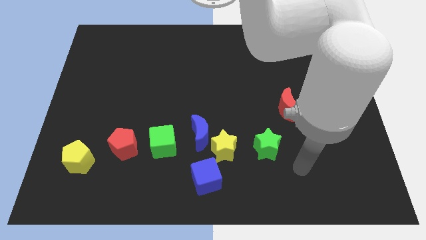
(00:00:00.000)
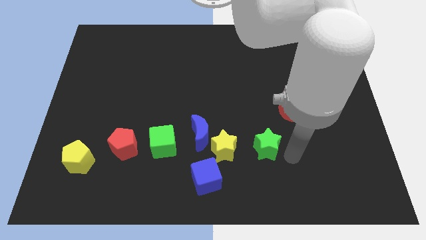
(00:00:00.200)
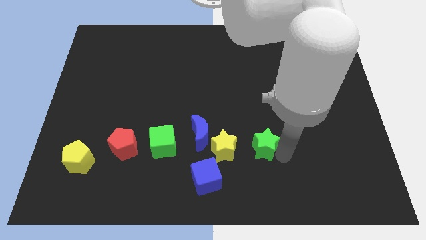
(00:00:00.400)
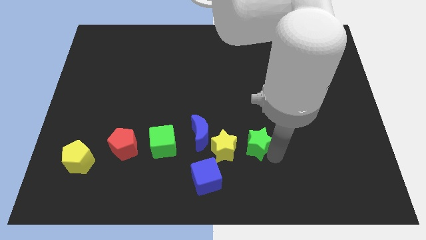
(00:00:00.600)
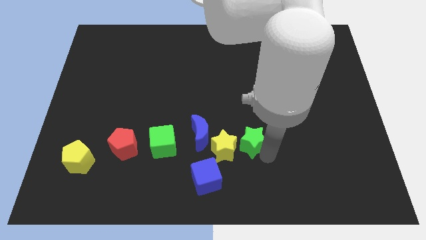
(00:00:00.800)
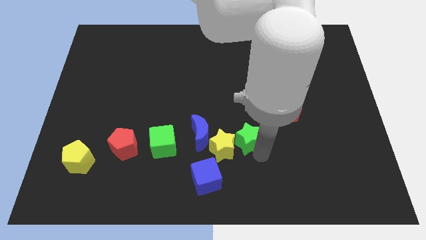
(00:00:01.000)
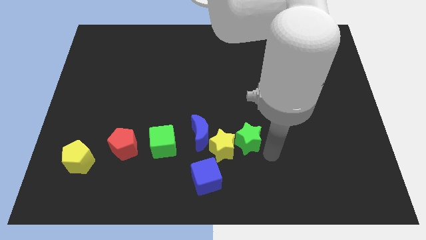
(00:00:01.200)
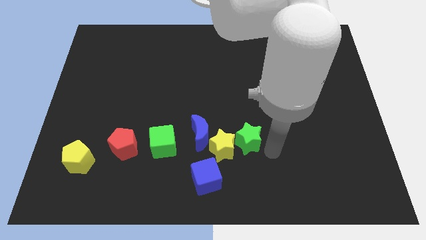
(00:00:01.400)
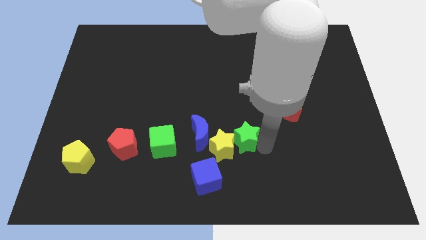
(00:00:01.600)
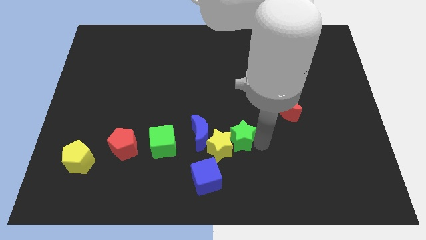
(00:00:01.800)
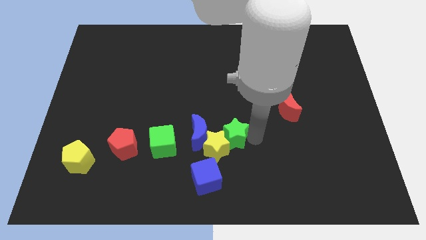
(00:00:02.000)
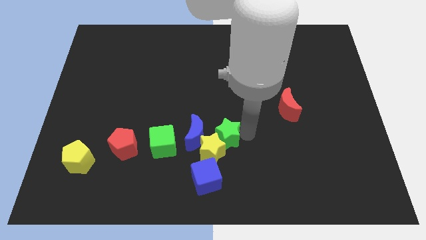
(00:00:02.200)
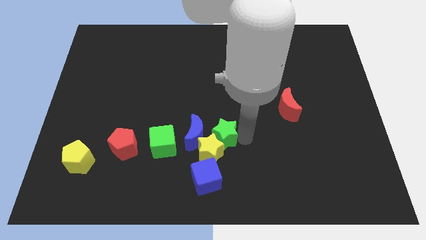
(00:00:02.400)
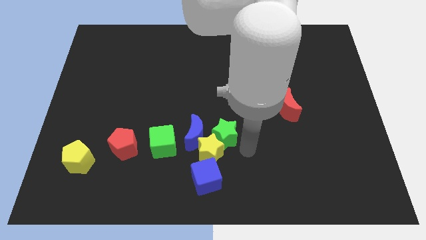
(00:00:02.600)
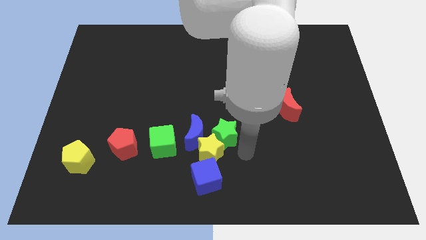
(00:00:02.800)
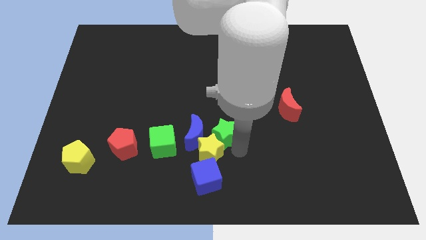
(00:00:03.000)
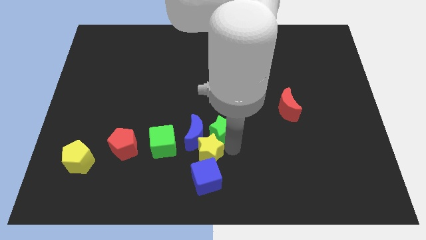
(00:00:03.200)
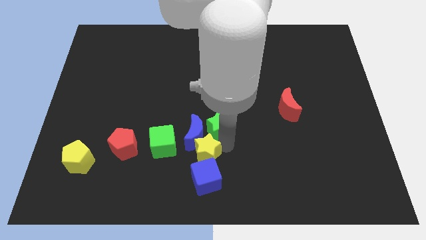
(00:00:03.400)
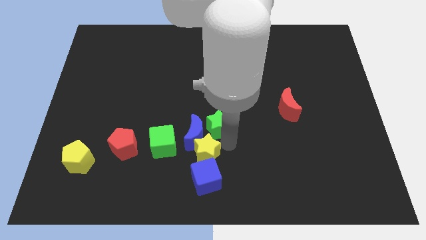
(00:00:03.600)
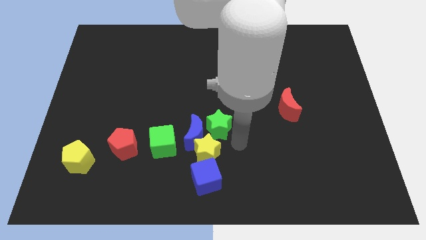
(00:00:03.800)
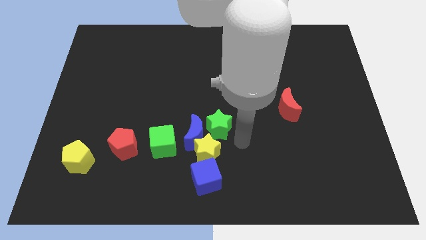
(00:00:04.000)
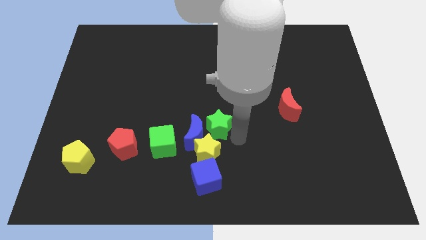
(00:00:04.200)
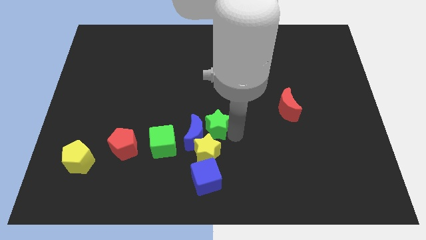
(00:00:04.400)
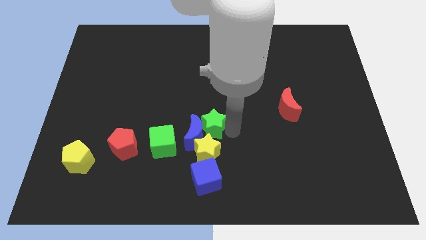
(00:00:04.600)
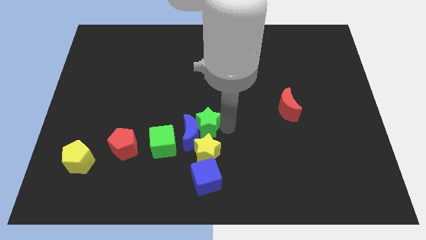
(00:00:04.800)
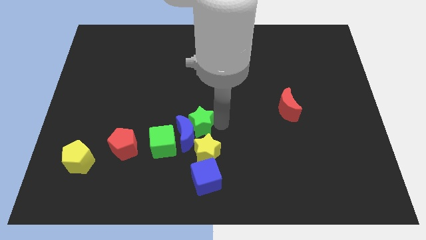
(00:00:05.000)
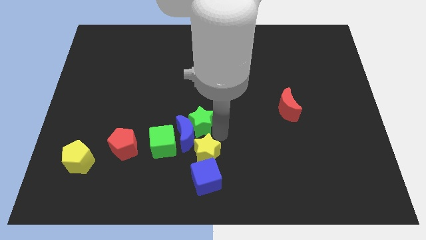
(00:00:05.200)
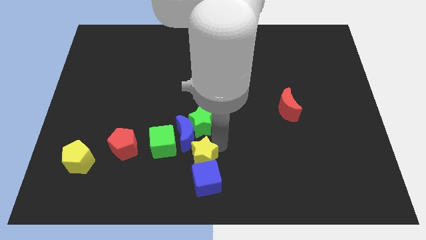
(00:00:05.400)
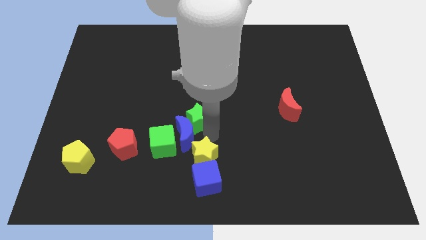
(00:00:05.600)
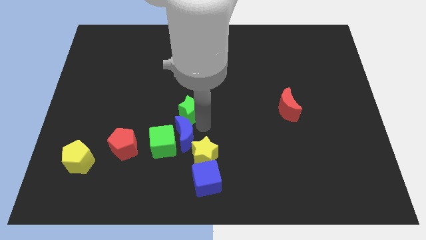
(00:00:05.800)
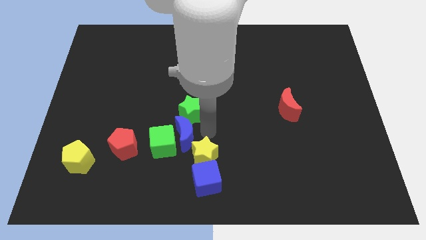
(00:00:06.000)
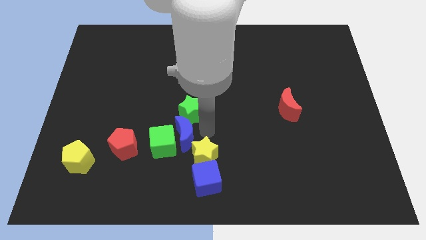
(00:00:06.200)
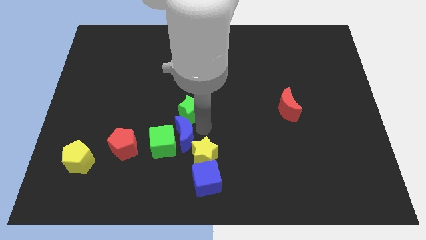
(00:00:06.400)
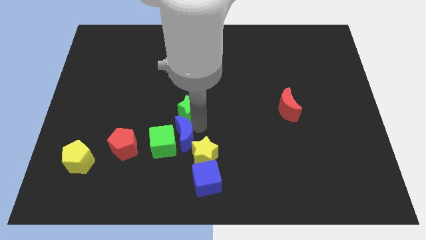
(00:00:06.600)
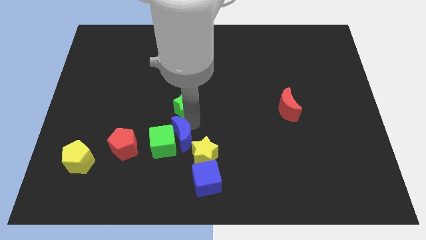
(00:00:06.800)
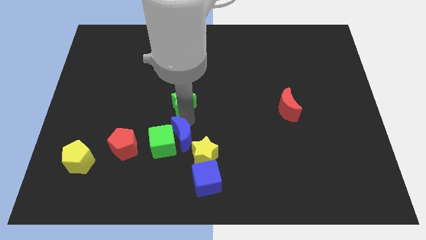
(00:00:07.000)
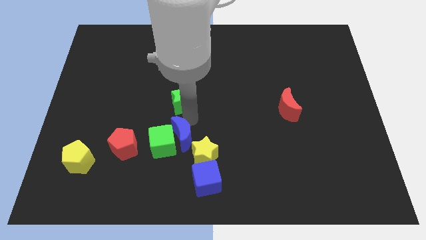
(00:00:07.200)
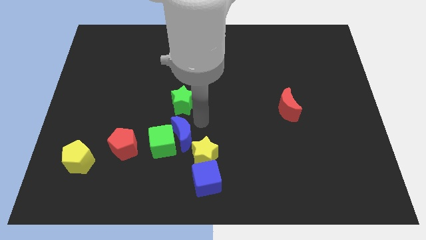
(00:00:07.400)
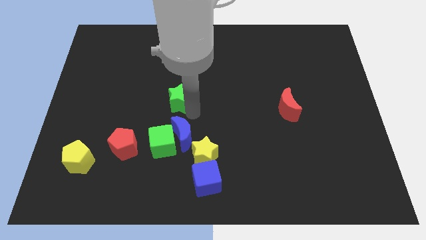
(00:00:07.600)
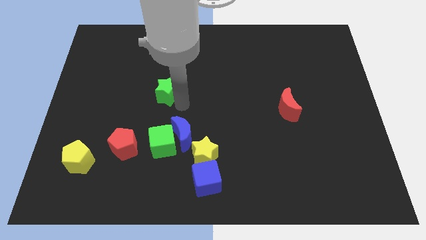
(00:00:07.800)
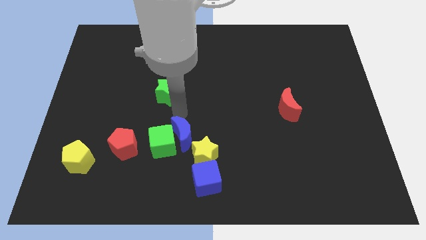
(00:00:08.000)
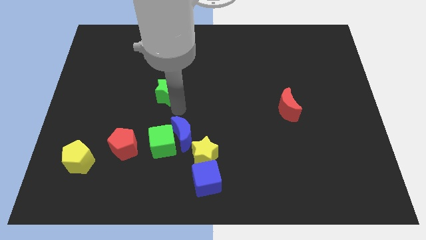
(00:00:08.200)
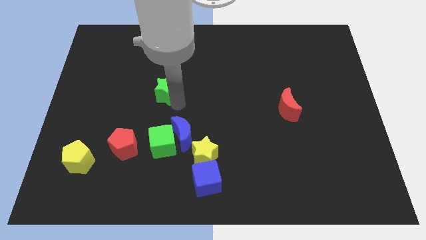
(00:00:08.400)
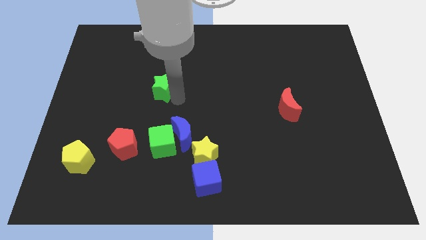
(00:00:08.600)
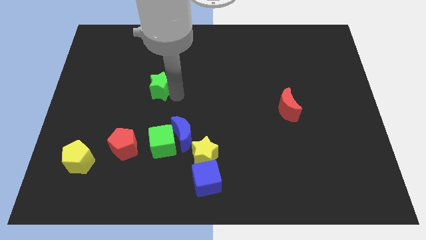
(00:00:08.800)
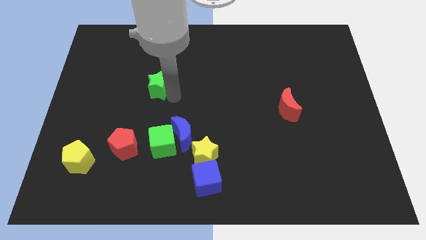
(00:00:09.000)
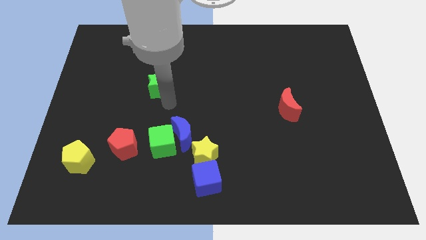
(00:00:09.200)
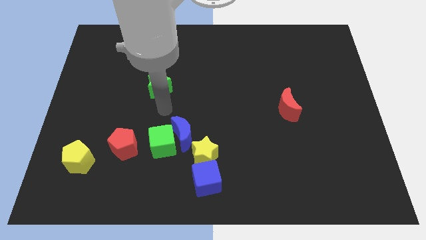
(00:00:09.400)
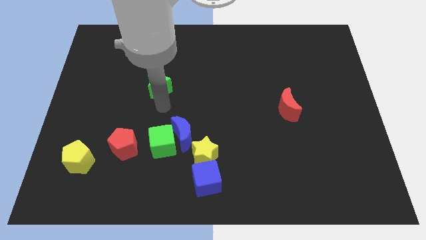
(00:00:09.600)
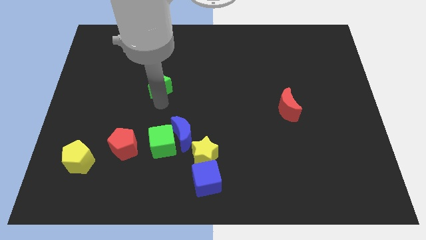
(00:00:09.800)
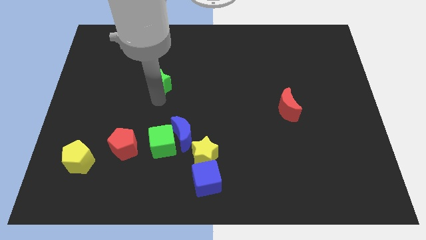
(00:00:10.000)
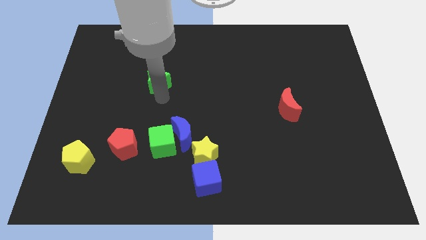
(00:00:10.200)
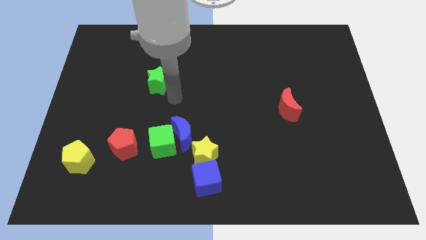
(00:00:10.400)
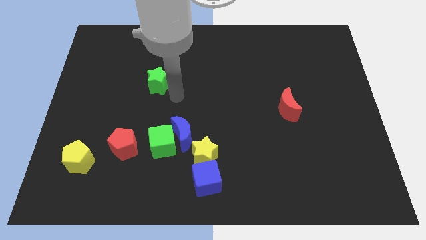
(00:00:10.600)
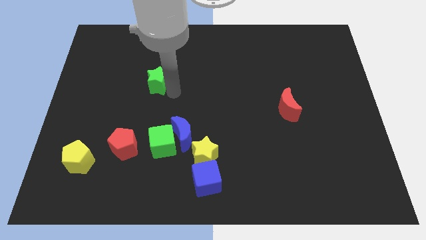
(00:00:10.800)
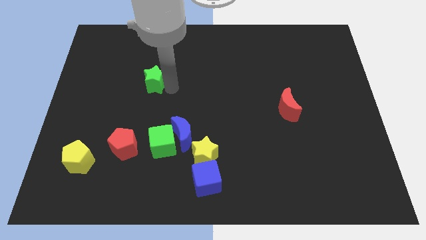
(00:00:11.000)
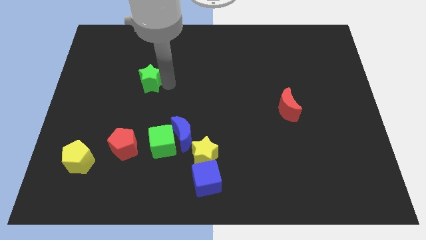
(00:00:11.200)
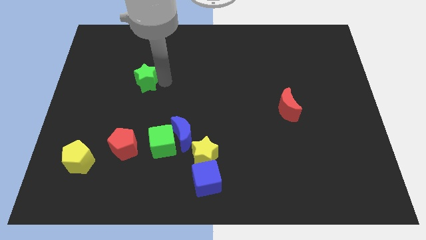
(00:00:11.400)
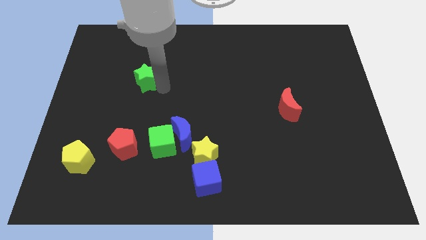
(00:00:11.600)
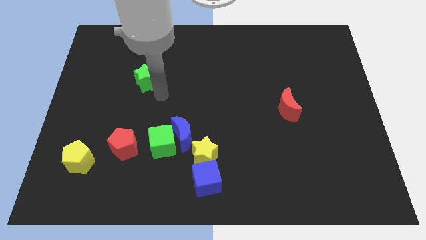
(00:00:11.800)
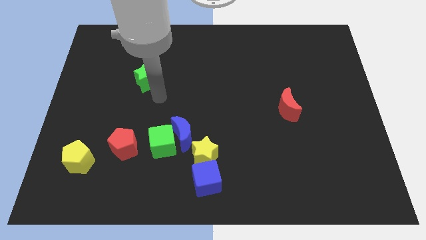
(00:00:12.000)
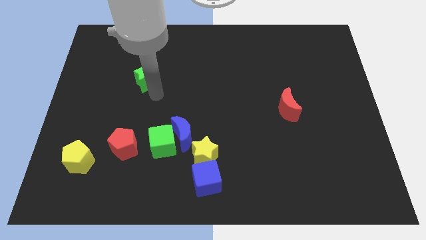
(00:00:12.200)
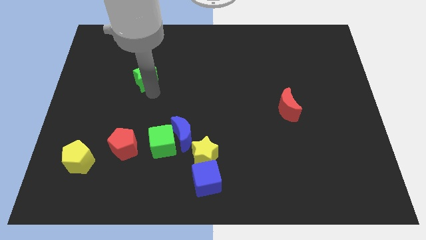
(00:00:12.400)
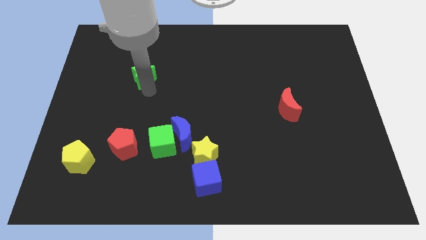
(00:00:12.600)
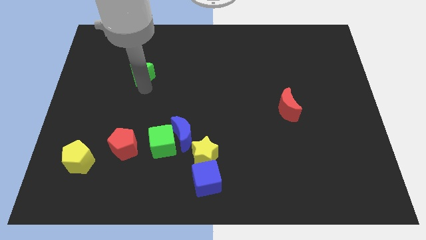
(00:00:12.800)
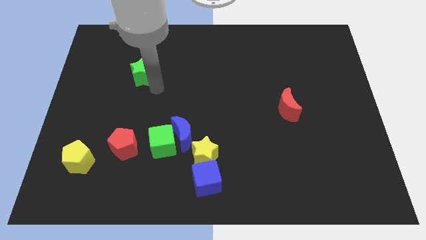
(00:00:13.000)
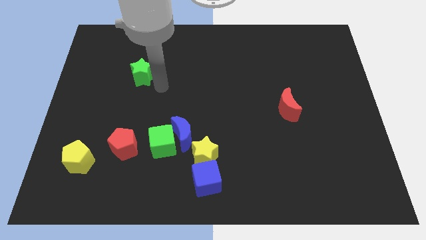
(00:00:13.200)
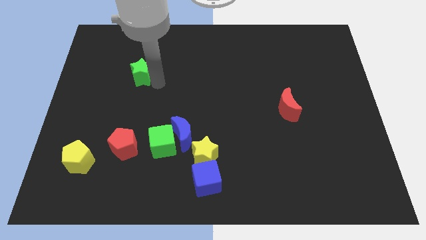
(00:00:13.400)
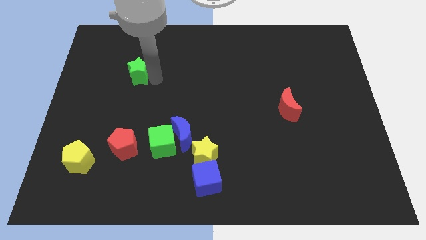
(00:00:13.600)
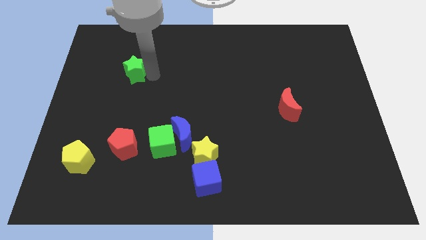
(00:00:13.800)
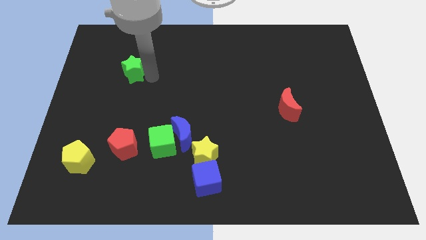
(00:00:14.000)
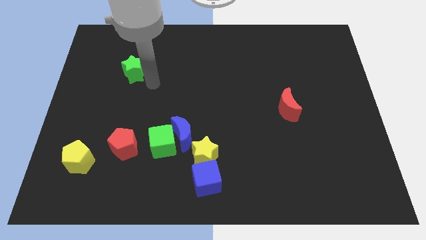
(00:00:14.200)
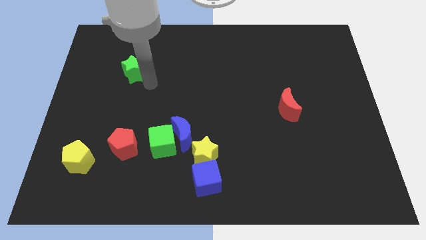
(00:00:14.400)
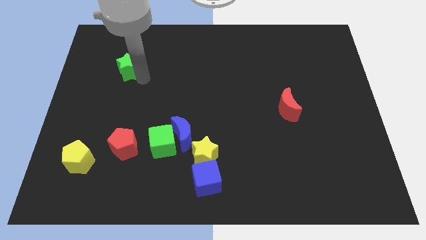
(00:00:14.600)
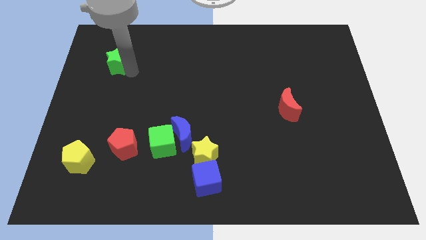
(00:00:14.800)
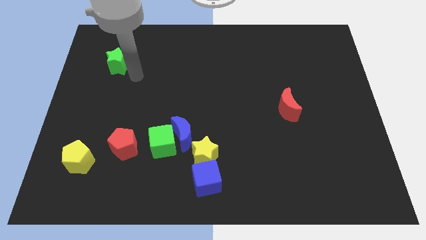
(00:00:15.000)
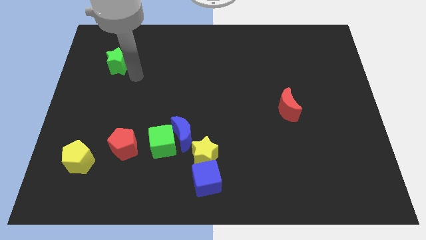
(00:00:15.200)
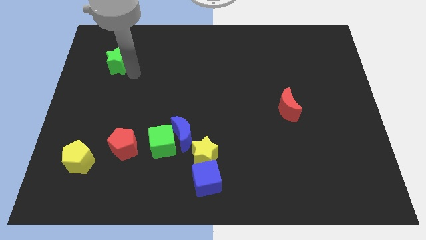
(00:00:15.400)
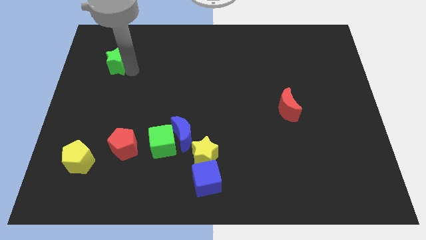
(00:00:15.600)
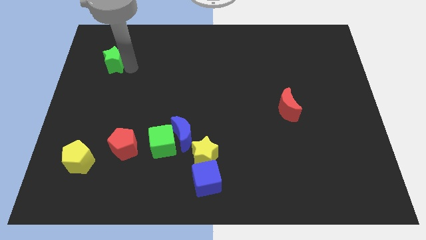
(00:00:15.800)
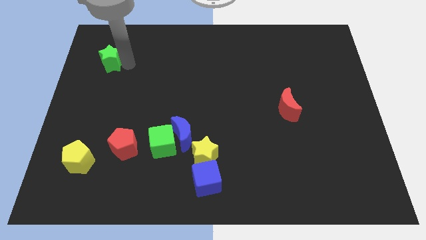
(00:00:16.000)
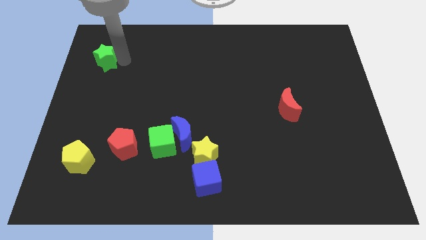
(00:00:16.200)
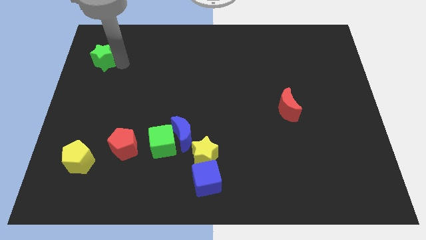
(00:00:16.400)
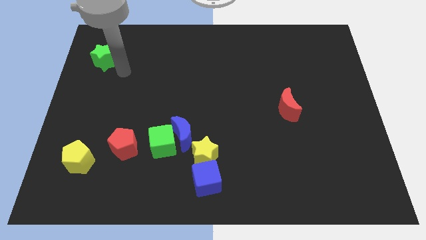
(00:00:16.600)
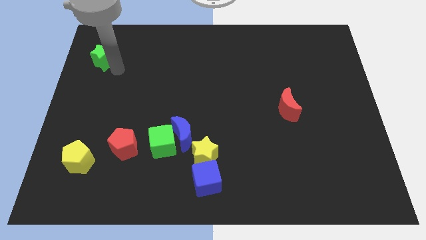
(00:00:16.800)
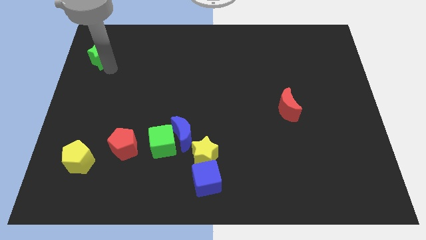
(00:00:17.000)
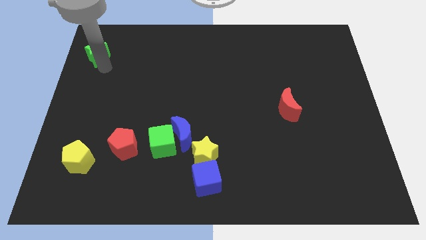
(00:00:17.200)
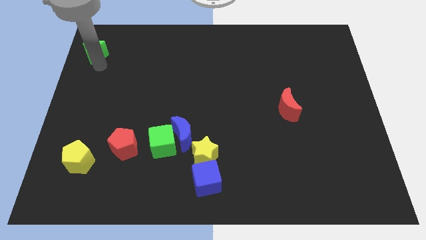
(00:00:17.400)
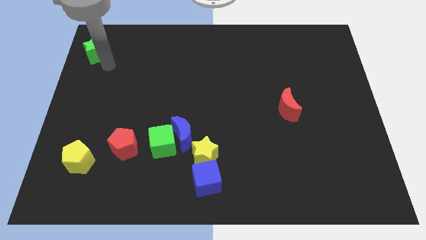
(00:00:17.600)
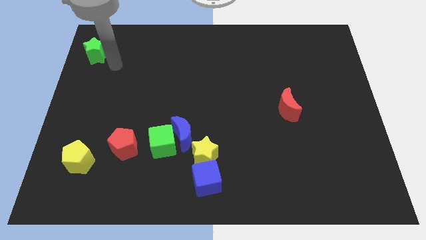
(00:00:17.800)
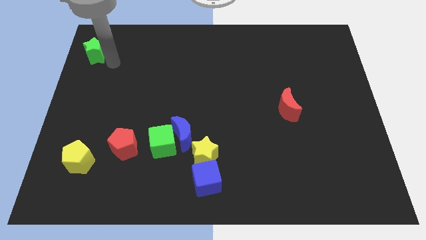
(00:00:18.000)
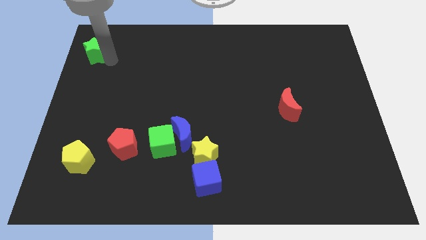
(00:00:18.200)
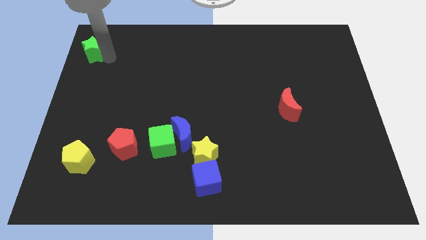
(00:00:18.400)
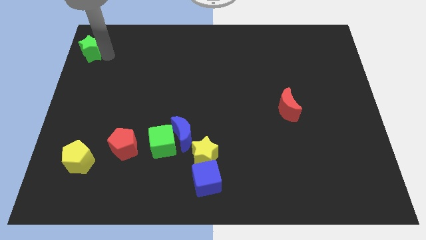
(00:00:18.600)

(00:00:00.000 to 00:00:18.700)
move the green star to the upper left corner
